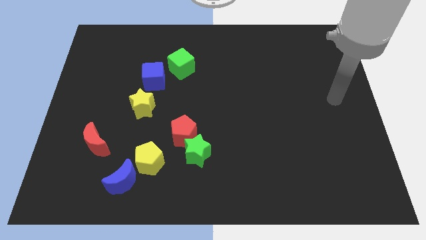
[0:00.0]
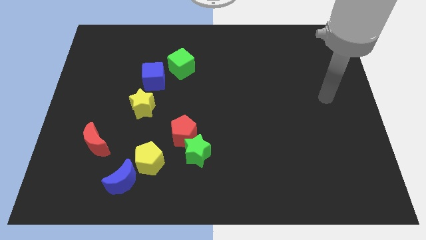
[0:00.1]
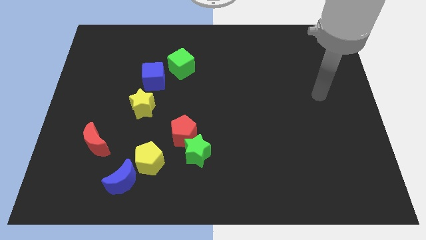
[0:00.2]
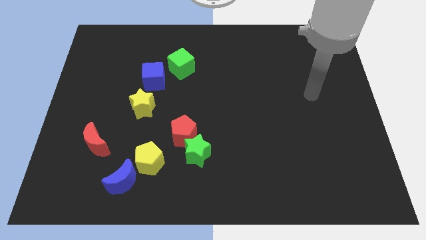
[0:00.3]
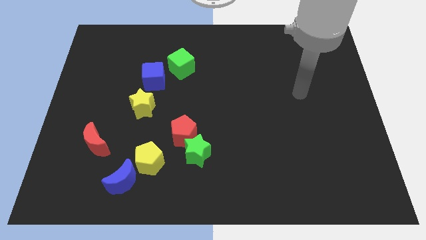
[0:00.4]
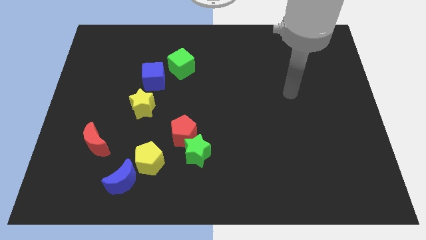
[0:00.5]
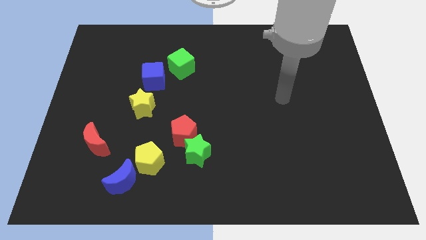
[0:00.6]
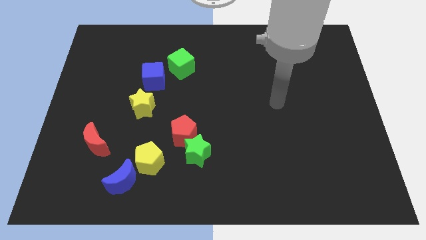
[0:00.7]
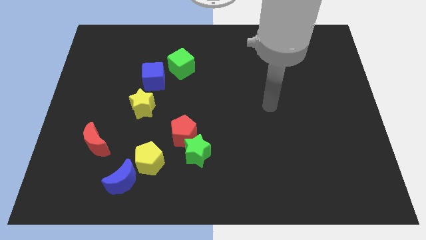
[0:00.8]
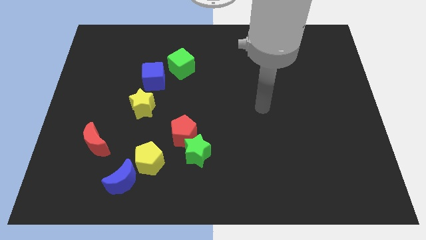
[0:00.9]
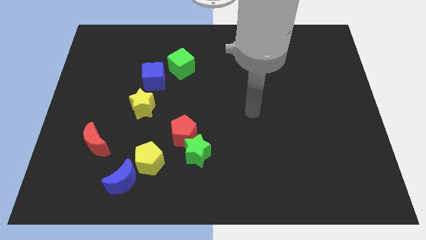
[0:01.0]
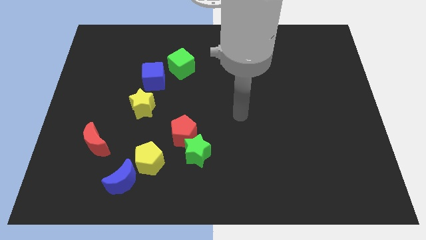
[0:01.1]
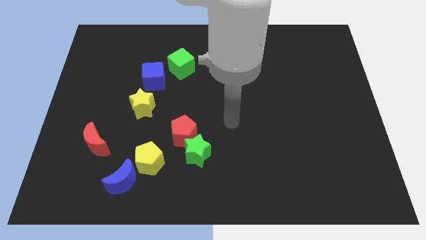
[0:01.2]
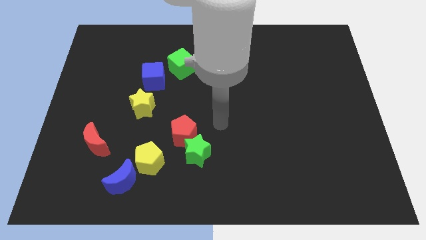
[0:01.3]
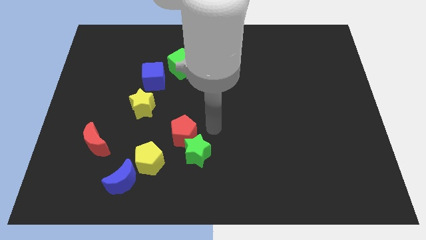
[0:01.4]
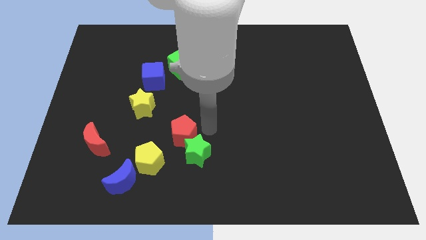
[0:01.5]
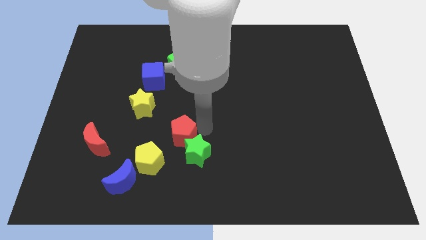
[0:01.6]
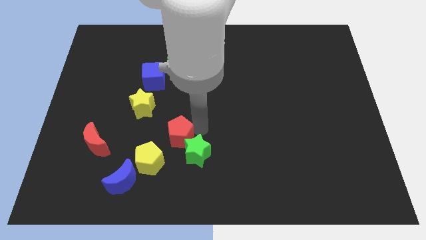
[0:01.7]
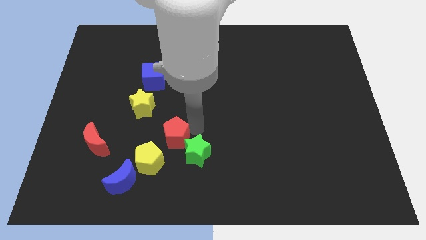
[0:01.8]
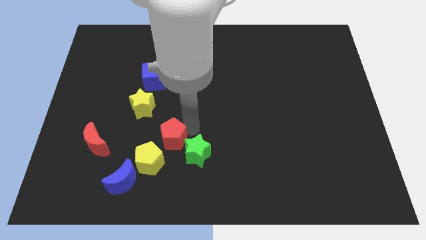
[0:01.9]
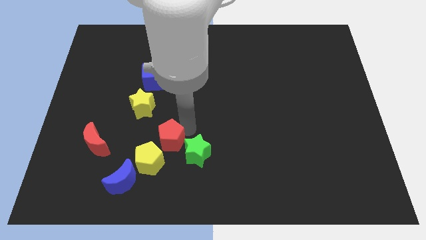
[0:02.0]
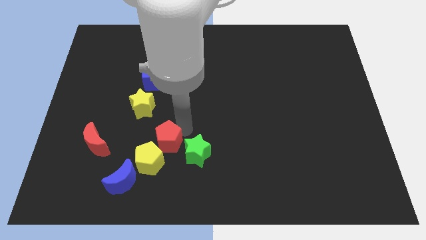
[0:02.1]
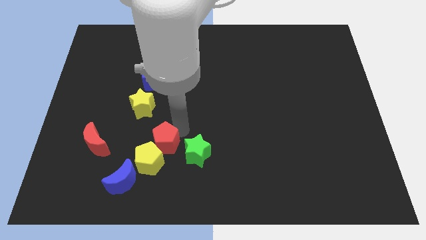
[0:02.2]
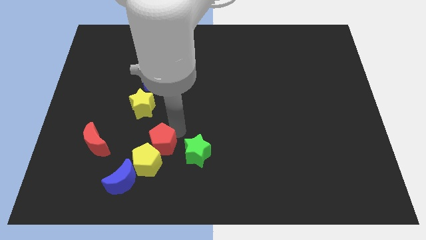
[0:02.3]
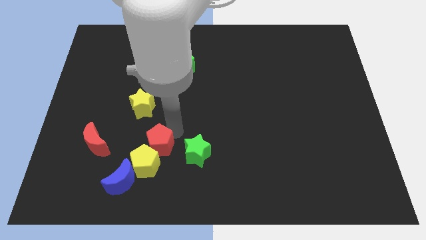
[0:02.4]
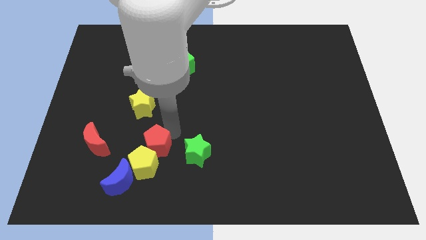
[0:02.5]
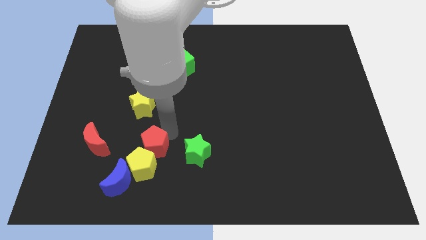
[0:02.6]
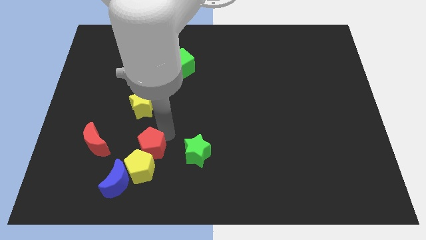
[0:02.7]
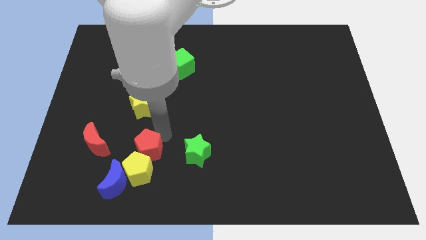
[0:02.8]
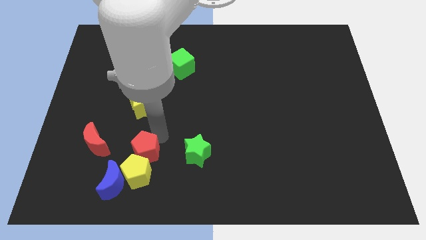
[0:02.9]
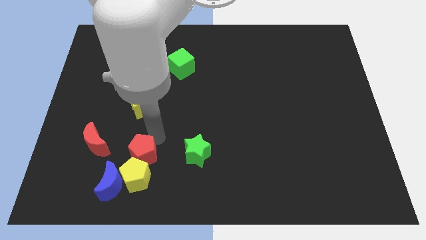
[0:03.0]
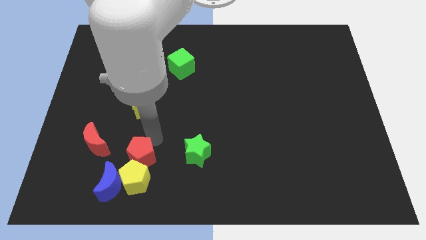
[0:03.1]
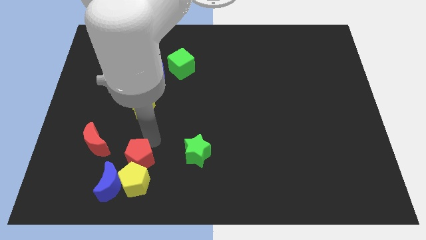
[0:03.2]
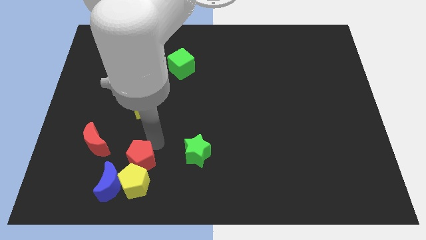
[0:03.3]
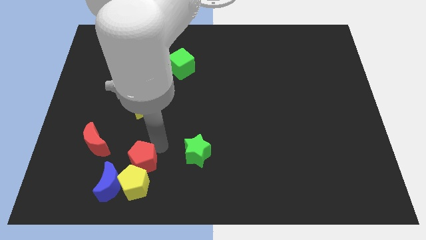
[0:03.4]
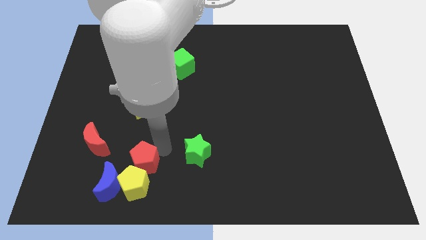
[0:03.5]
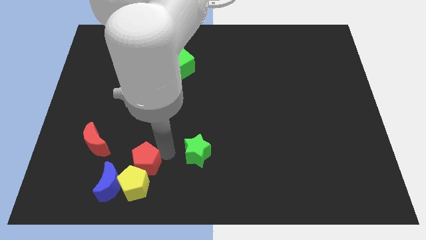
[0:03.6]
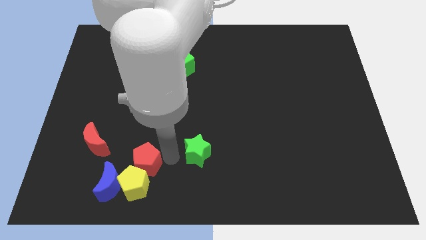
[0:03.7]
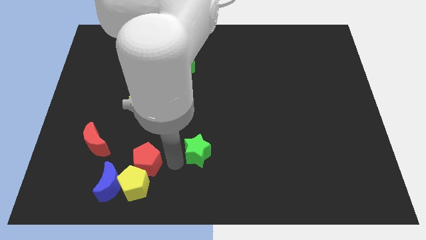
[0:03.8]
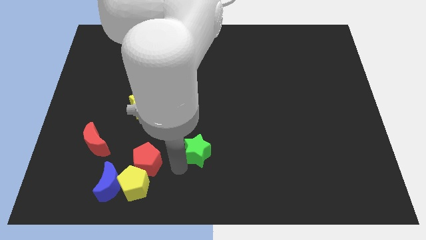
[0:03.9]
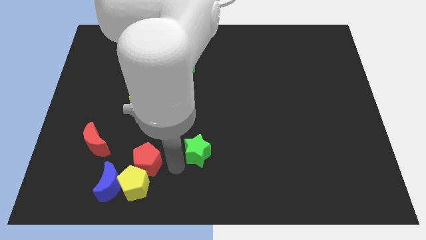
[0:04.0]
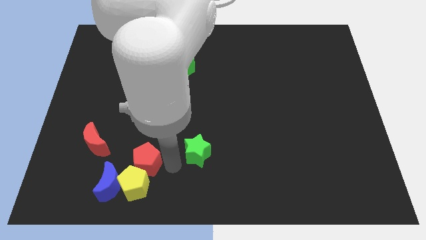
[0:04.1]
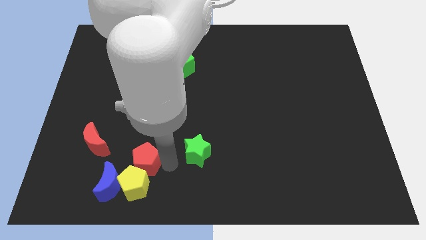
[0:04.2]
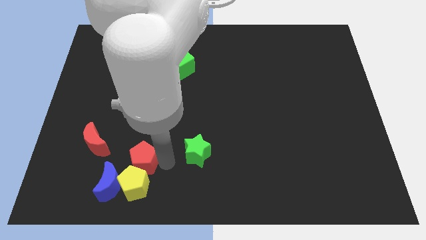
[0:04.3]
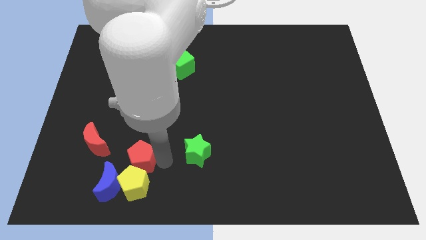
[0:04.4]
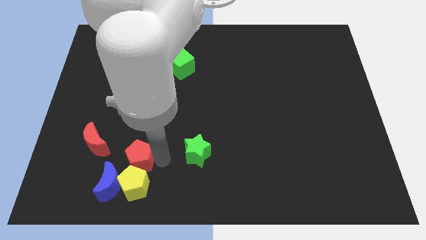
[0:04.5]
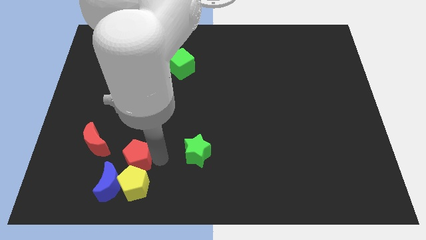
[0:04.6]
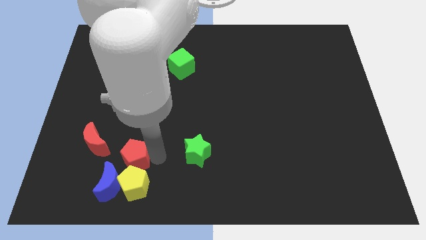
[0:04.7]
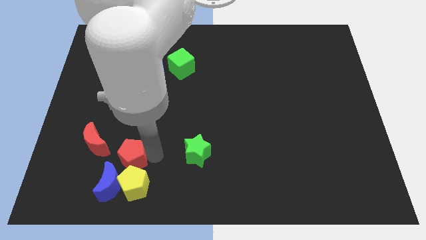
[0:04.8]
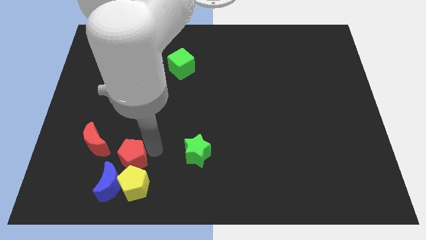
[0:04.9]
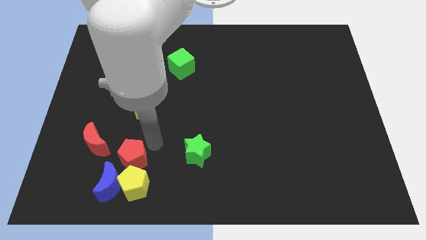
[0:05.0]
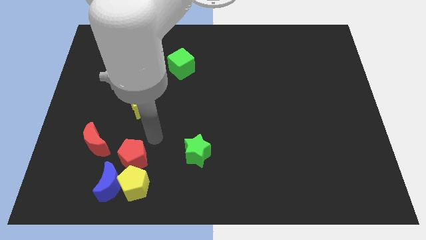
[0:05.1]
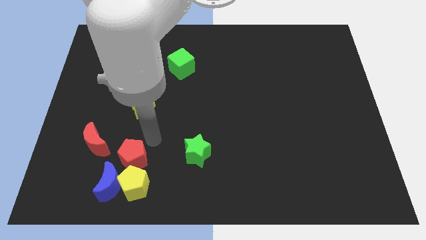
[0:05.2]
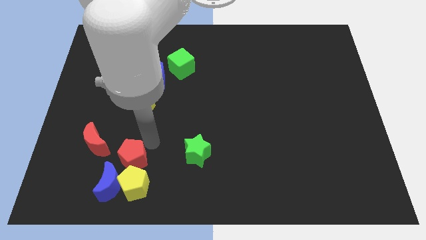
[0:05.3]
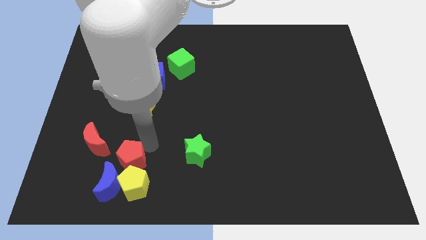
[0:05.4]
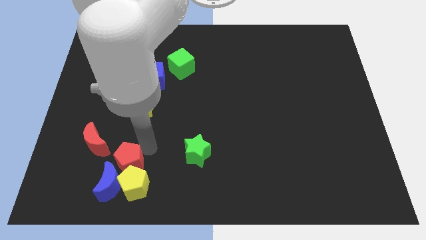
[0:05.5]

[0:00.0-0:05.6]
move the red pentagon next to the blue moon

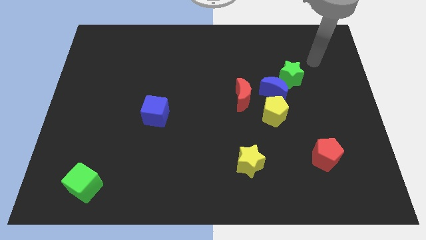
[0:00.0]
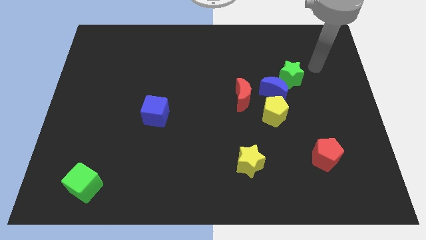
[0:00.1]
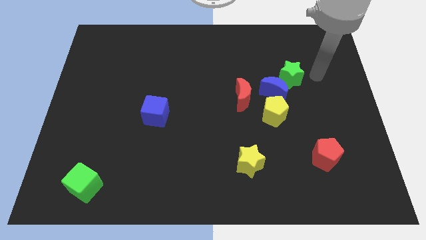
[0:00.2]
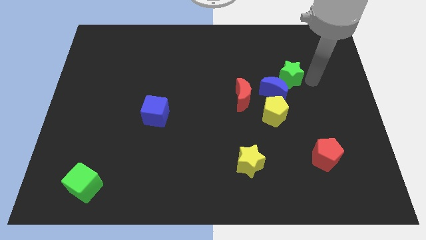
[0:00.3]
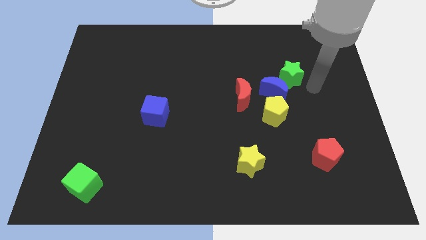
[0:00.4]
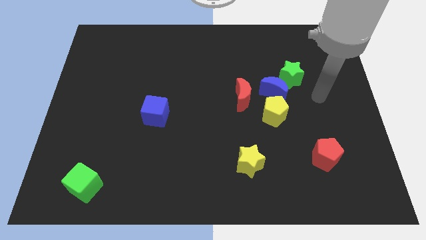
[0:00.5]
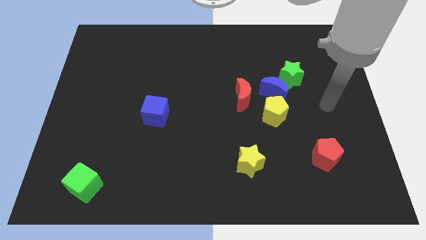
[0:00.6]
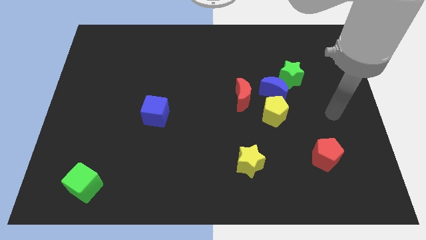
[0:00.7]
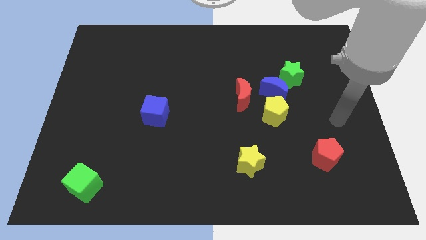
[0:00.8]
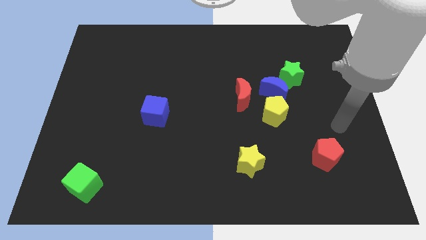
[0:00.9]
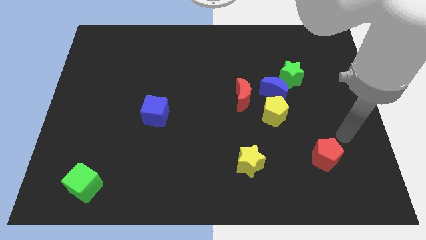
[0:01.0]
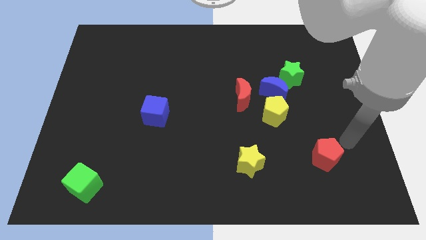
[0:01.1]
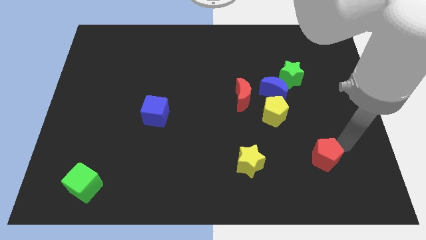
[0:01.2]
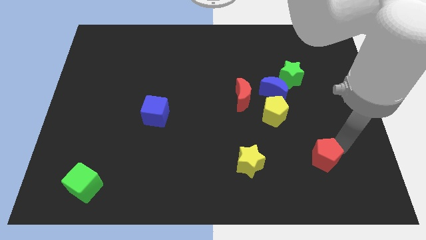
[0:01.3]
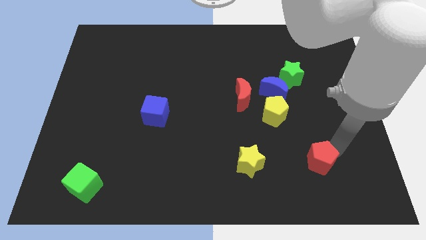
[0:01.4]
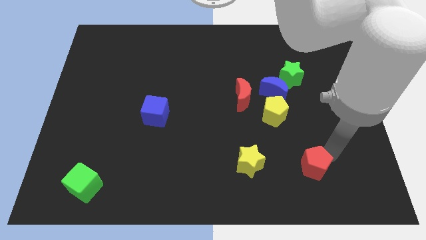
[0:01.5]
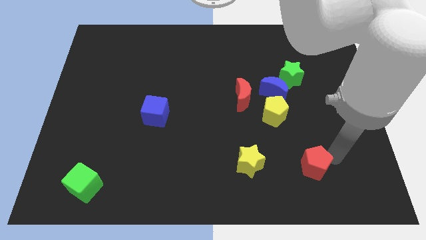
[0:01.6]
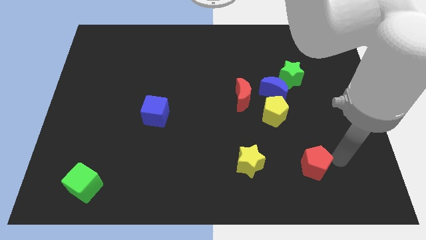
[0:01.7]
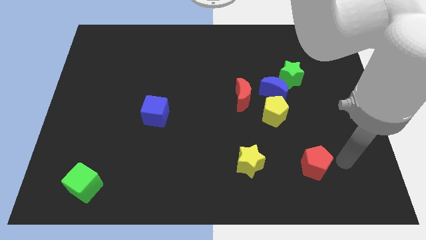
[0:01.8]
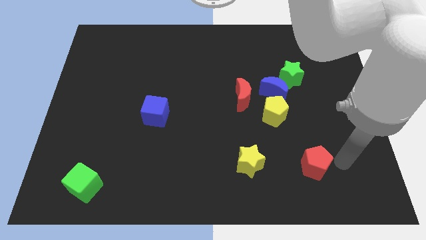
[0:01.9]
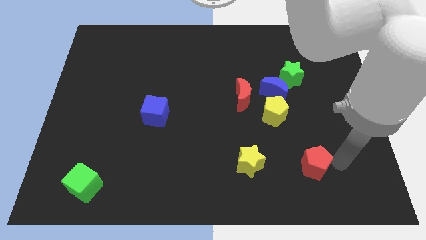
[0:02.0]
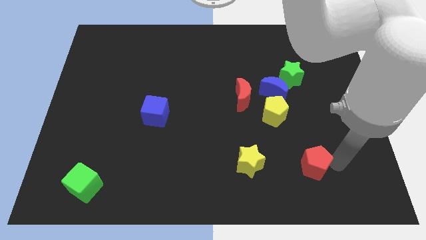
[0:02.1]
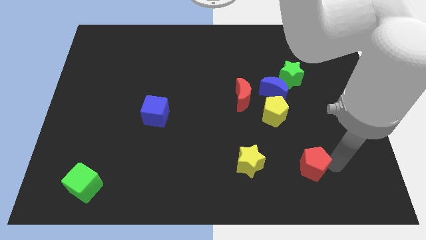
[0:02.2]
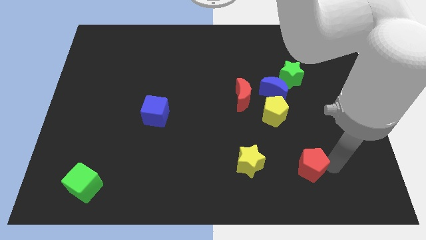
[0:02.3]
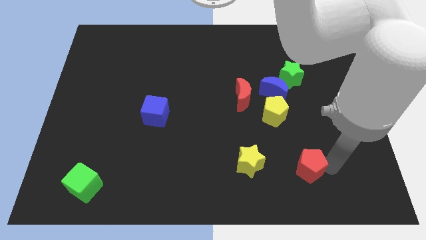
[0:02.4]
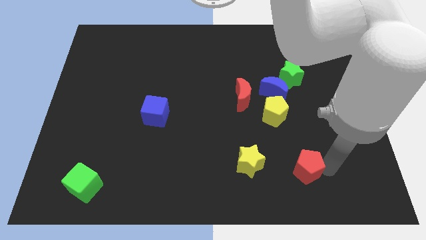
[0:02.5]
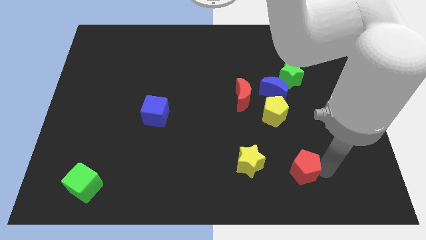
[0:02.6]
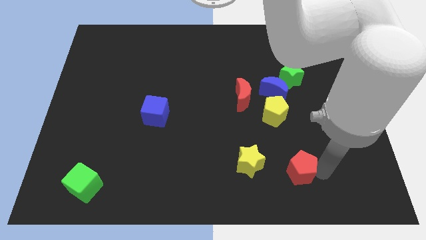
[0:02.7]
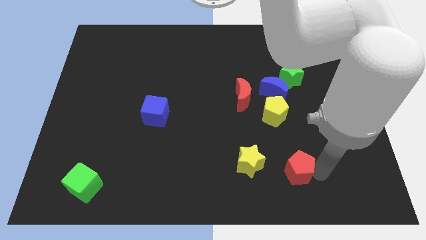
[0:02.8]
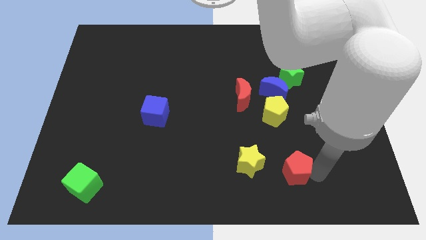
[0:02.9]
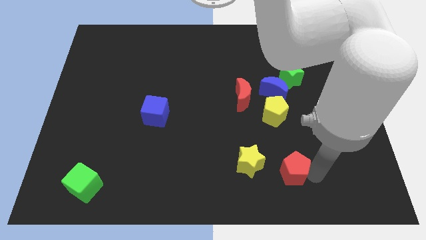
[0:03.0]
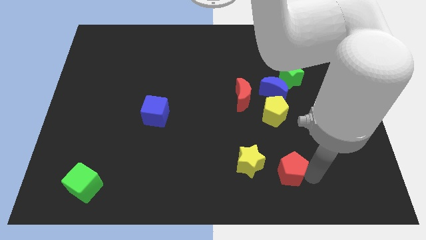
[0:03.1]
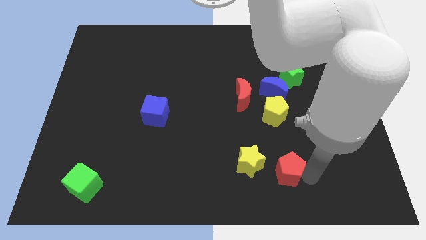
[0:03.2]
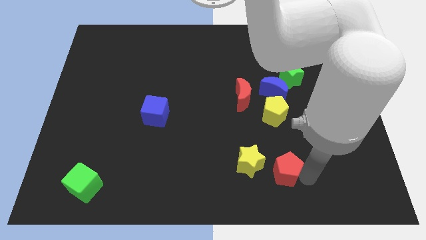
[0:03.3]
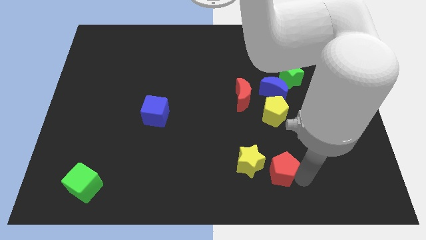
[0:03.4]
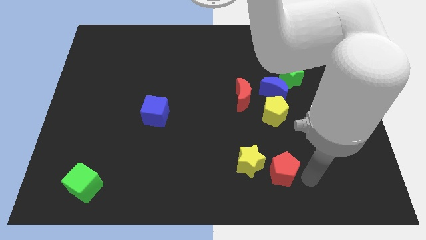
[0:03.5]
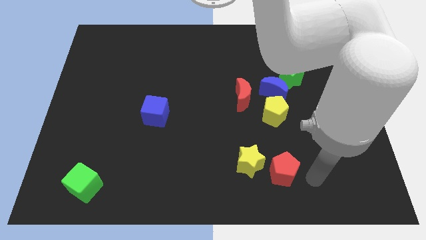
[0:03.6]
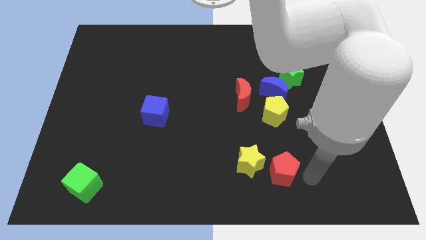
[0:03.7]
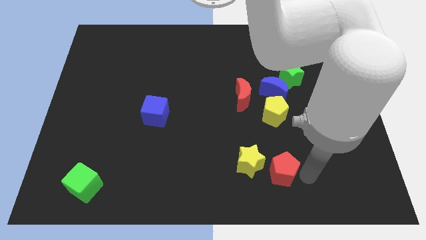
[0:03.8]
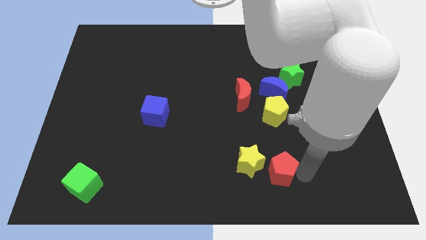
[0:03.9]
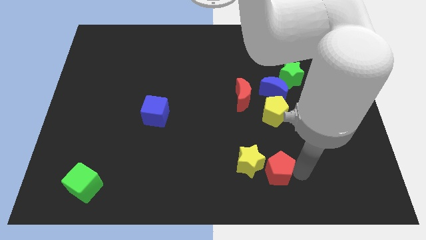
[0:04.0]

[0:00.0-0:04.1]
move the red pentagon towards the yellow star
